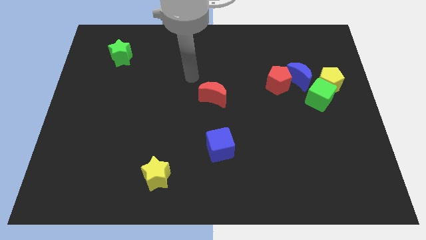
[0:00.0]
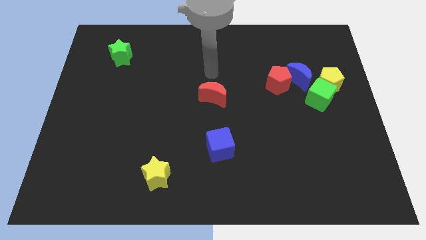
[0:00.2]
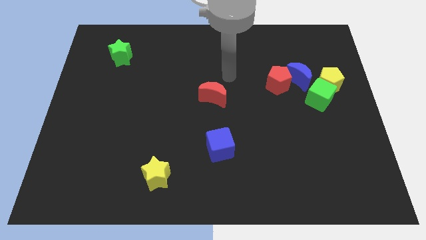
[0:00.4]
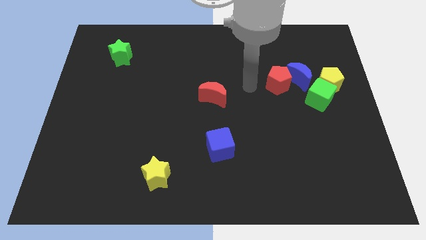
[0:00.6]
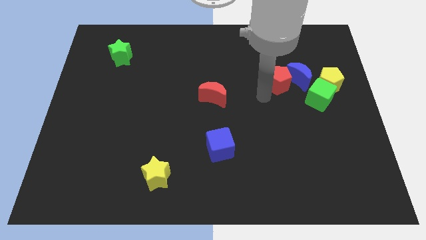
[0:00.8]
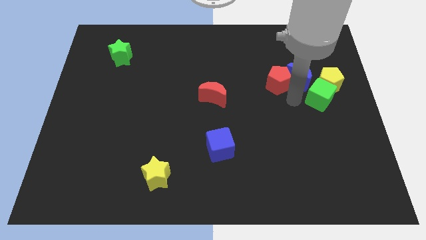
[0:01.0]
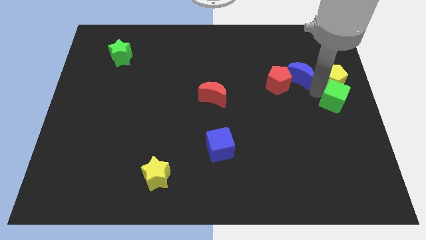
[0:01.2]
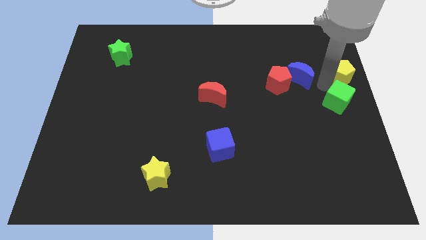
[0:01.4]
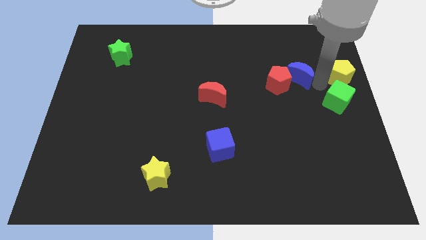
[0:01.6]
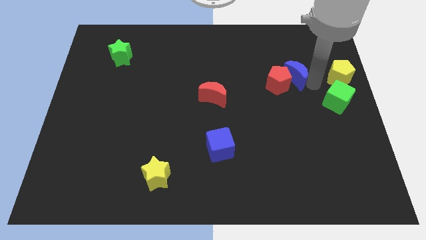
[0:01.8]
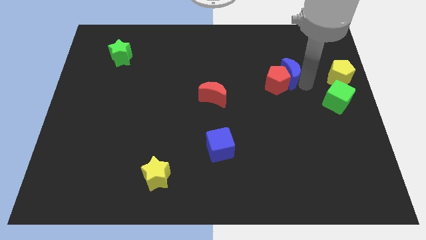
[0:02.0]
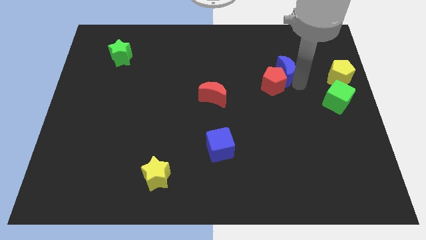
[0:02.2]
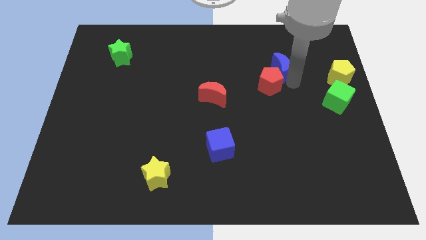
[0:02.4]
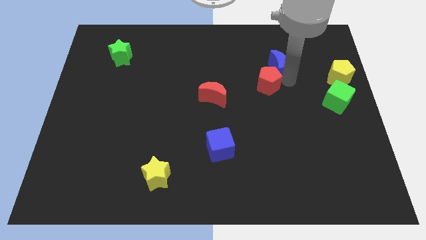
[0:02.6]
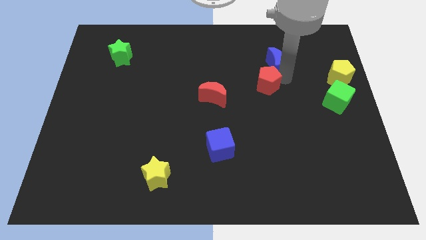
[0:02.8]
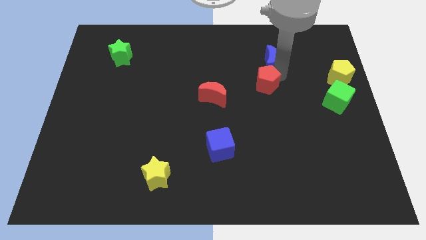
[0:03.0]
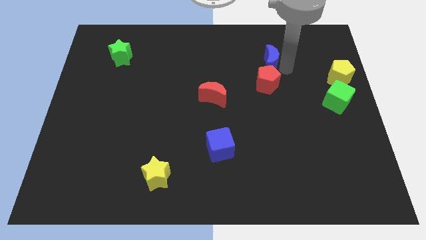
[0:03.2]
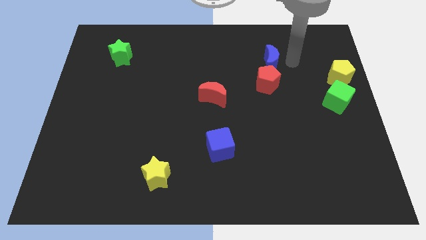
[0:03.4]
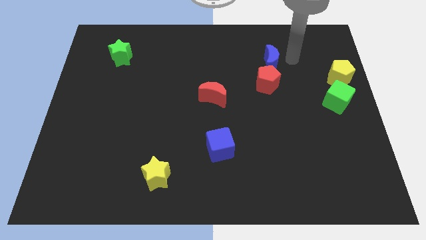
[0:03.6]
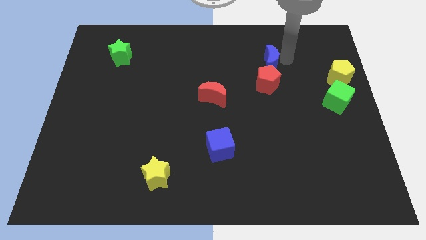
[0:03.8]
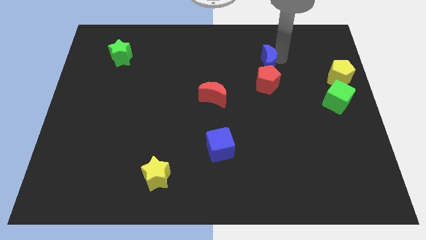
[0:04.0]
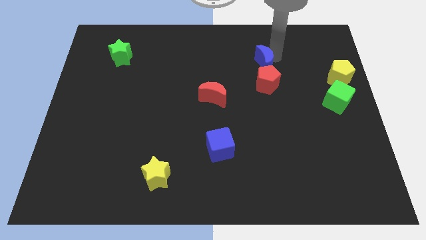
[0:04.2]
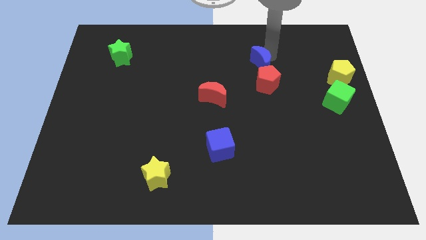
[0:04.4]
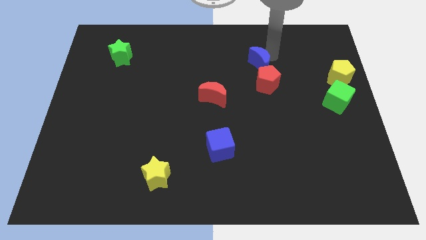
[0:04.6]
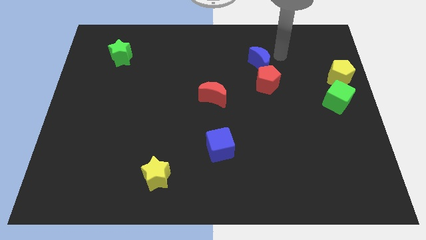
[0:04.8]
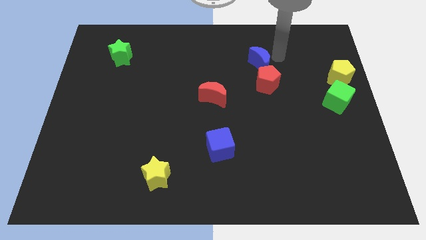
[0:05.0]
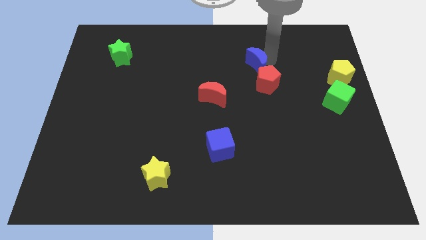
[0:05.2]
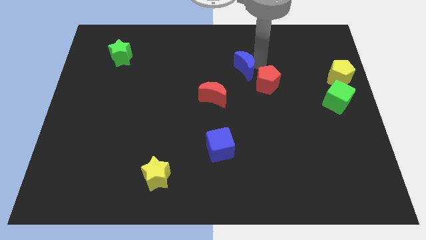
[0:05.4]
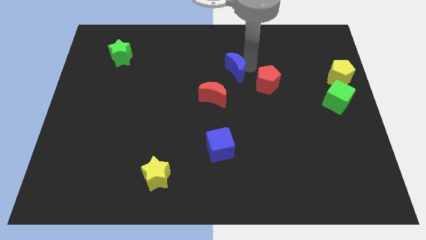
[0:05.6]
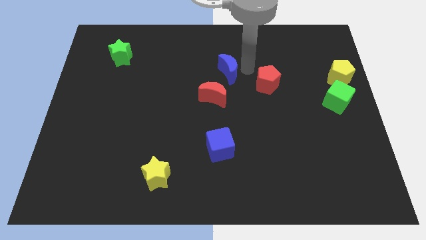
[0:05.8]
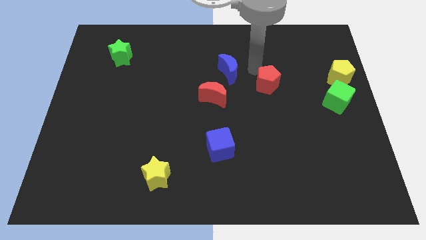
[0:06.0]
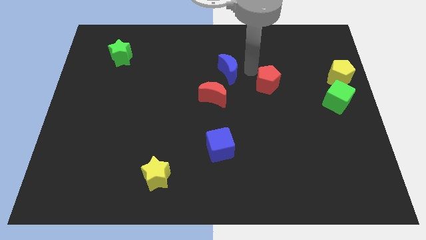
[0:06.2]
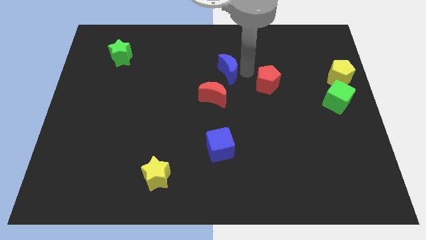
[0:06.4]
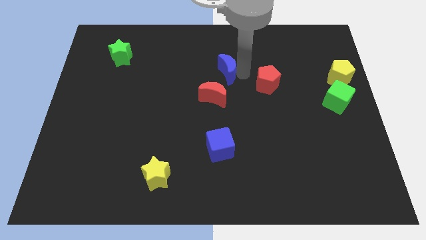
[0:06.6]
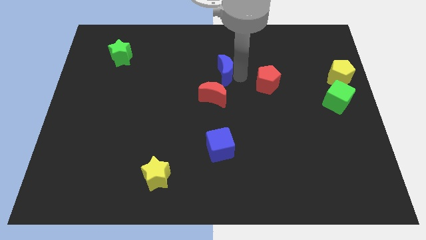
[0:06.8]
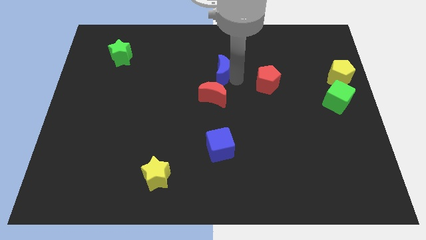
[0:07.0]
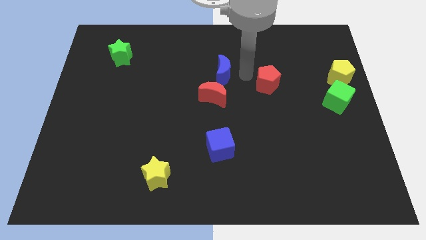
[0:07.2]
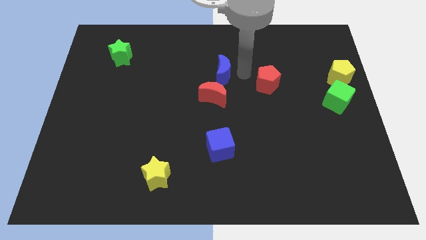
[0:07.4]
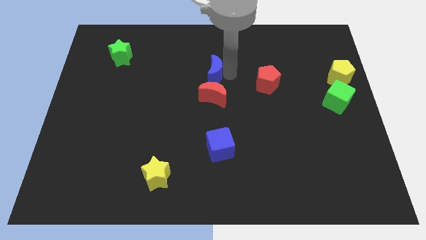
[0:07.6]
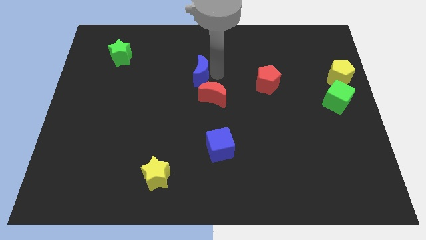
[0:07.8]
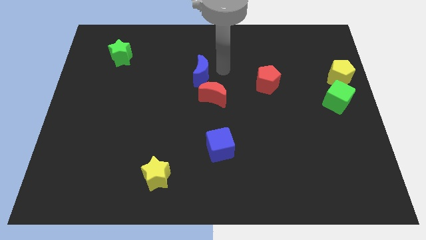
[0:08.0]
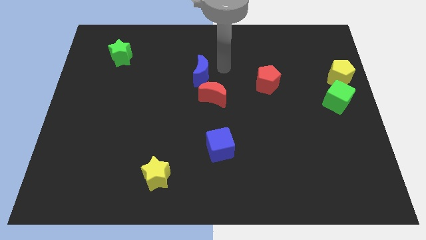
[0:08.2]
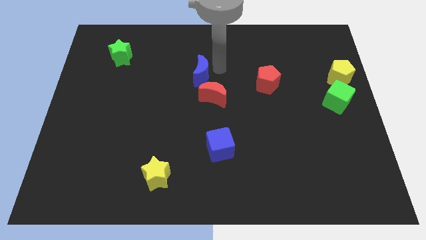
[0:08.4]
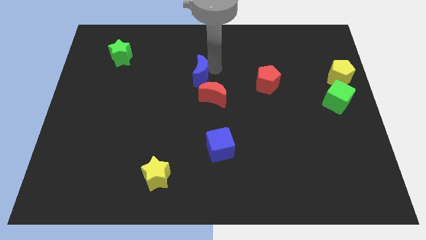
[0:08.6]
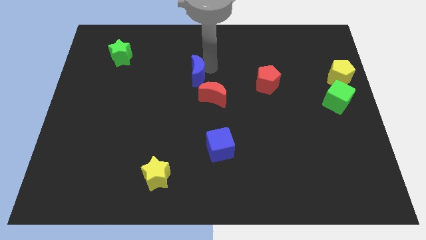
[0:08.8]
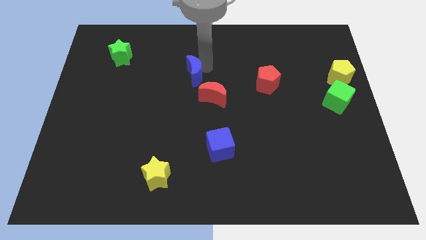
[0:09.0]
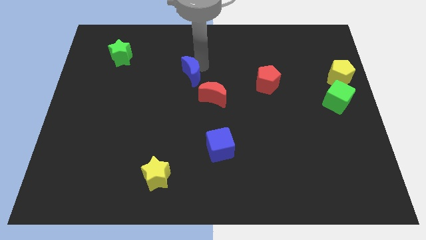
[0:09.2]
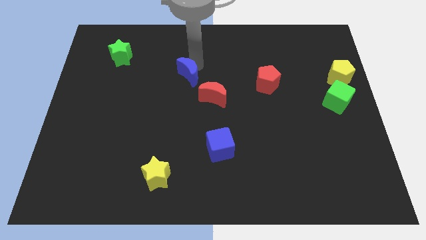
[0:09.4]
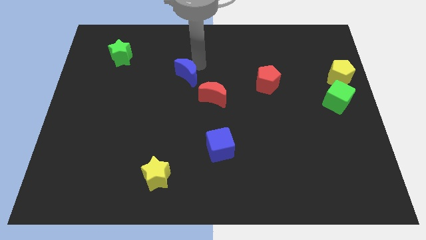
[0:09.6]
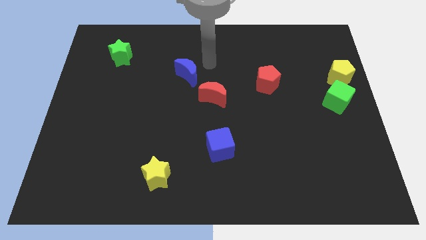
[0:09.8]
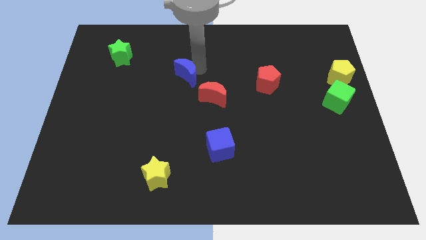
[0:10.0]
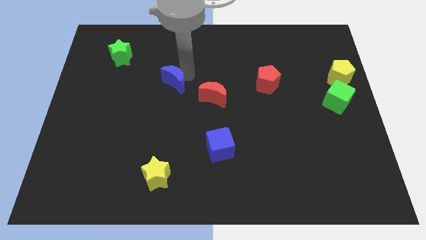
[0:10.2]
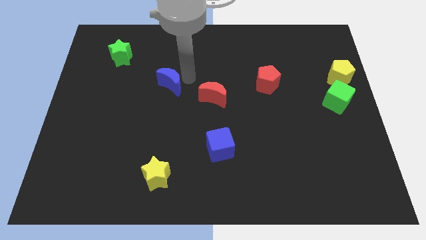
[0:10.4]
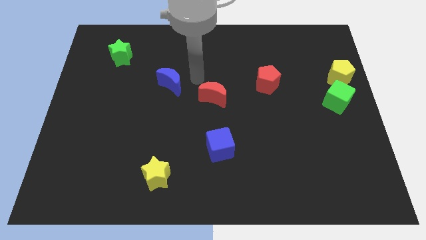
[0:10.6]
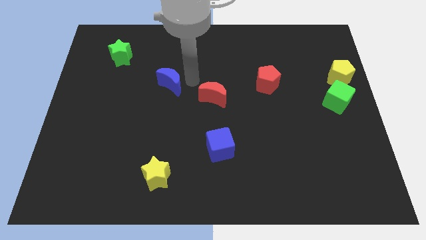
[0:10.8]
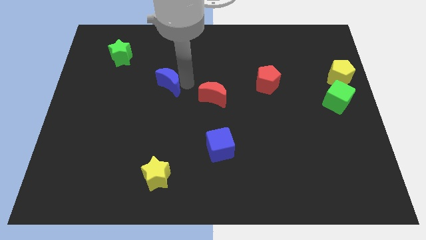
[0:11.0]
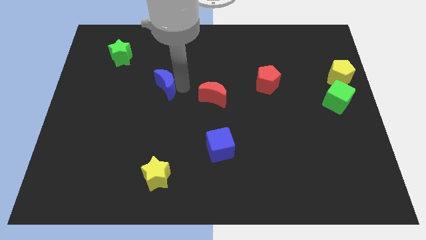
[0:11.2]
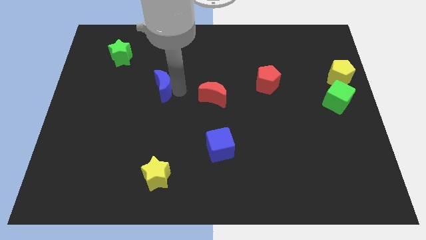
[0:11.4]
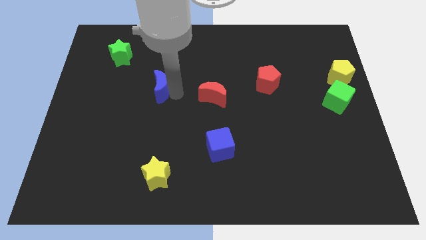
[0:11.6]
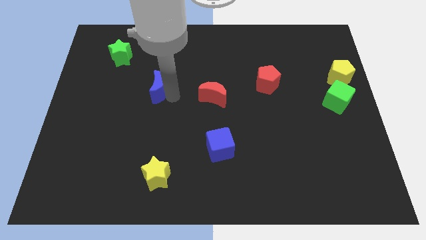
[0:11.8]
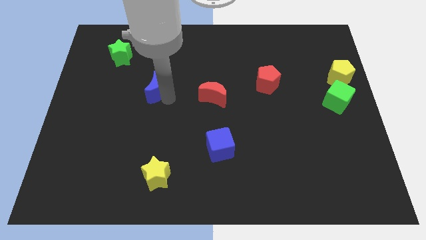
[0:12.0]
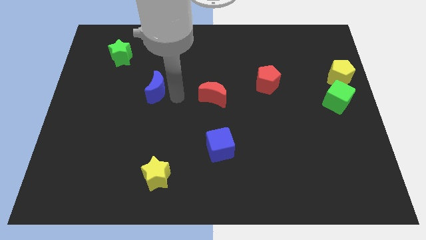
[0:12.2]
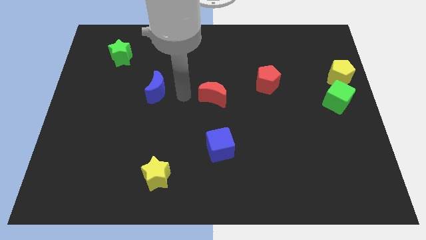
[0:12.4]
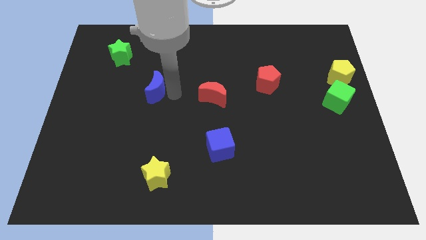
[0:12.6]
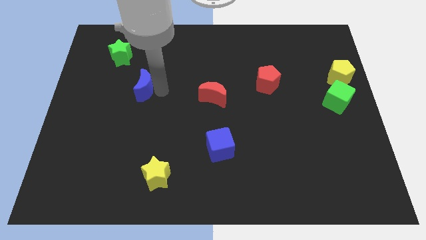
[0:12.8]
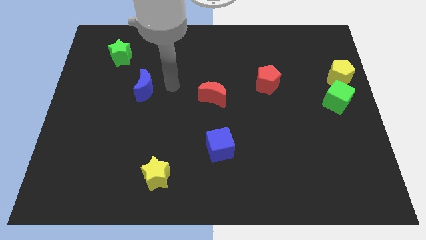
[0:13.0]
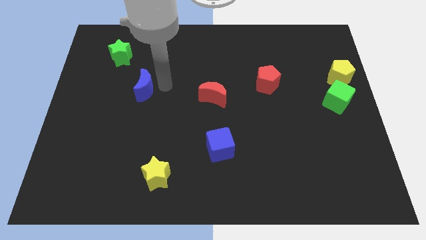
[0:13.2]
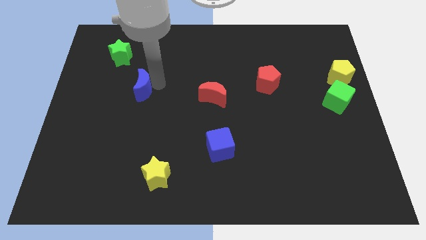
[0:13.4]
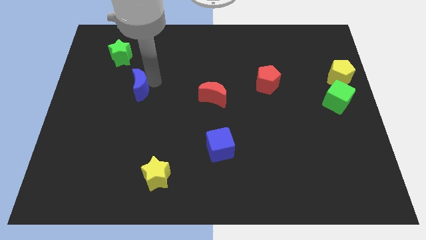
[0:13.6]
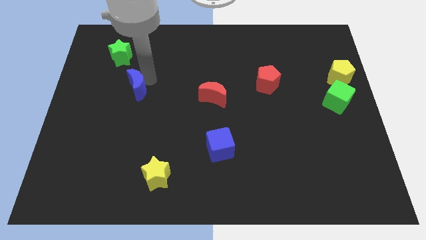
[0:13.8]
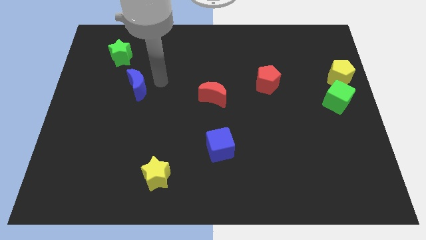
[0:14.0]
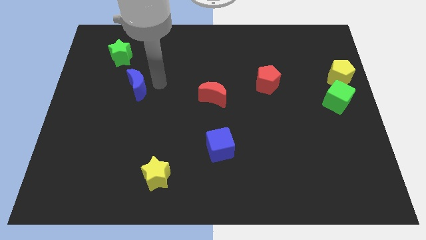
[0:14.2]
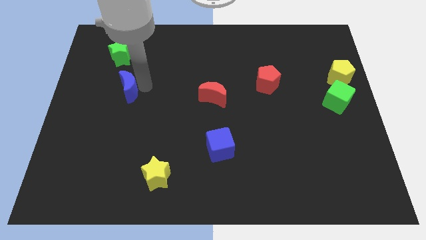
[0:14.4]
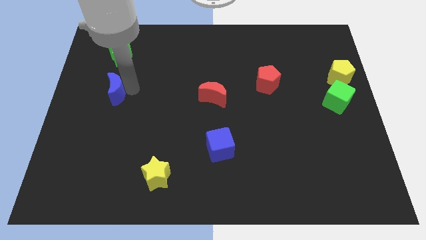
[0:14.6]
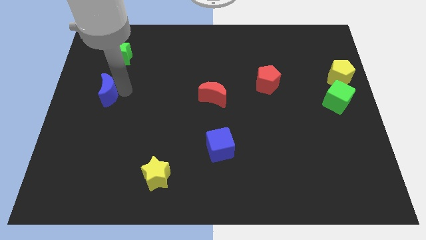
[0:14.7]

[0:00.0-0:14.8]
put the blue moon to the left side
